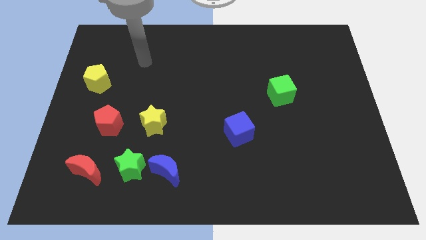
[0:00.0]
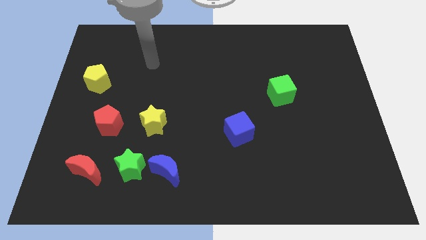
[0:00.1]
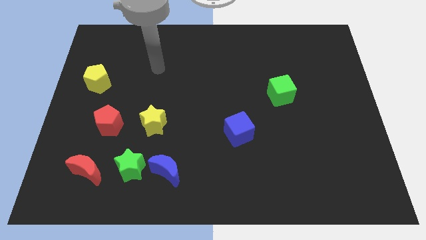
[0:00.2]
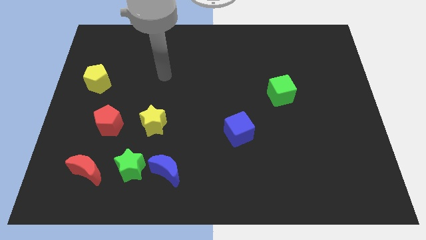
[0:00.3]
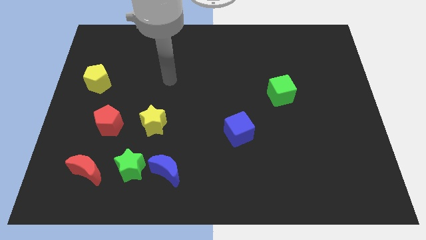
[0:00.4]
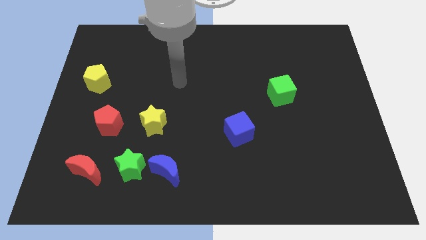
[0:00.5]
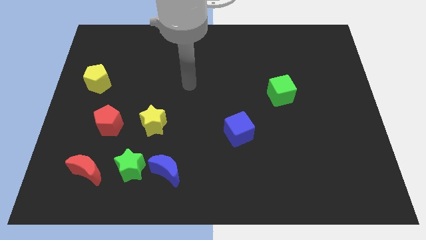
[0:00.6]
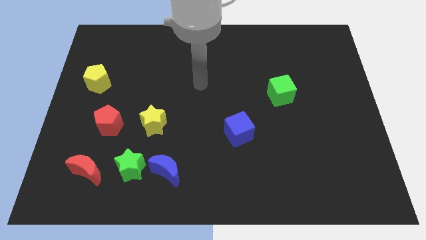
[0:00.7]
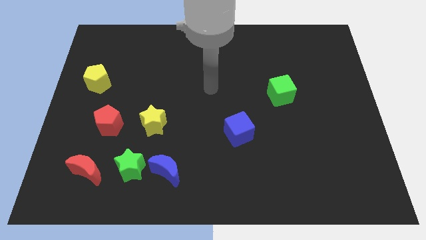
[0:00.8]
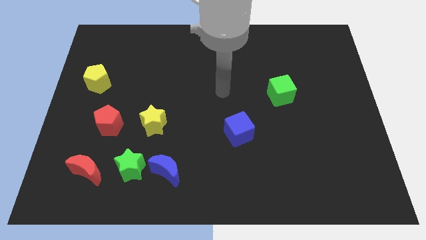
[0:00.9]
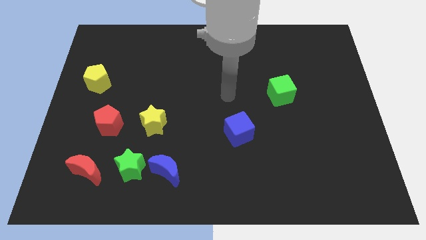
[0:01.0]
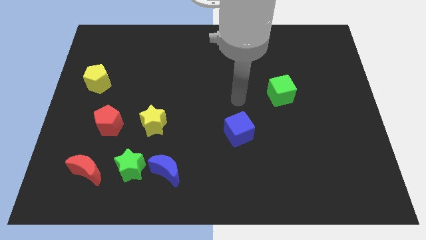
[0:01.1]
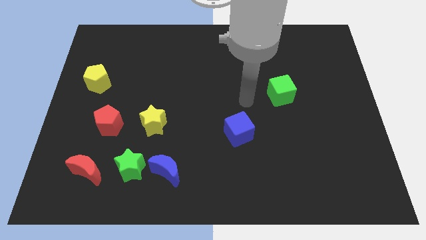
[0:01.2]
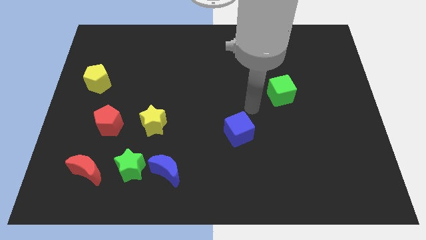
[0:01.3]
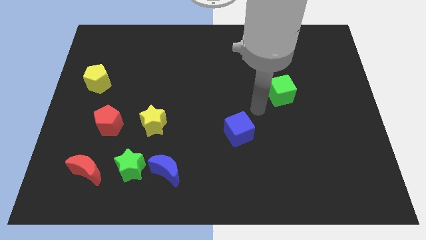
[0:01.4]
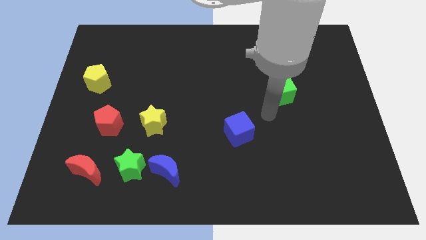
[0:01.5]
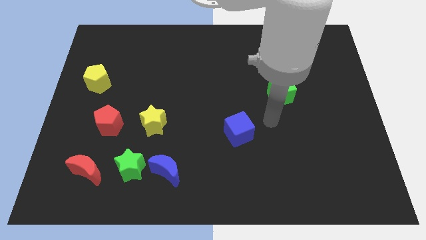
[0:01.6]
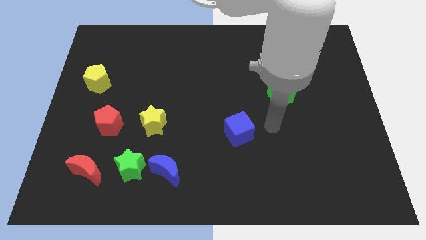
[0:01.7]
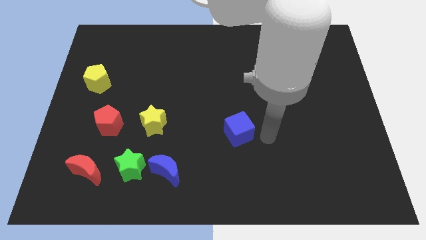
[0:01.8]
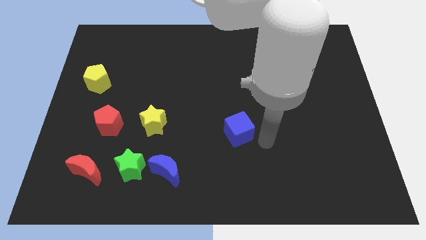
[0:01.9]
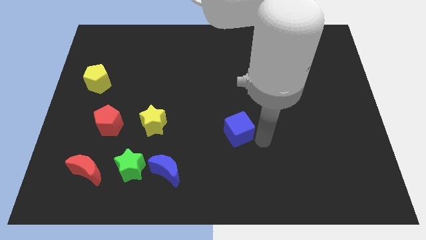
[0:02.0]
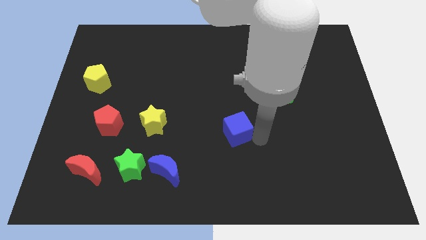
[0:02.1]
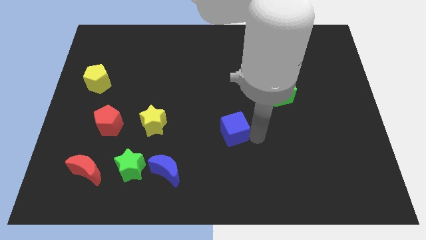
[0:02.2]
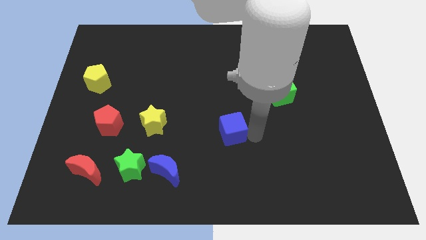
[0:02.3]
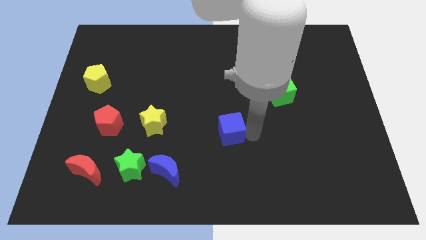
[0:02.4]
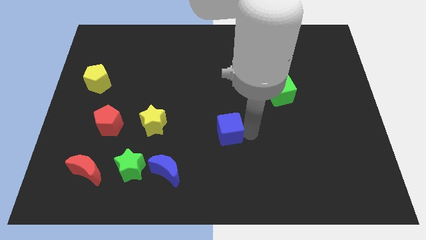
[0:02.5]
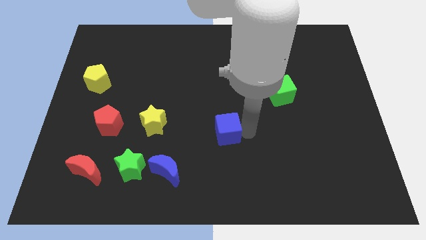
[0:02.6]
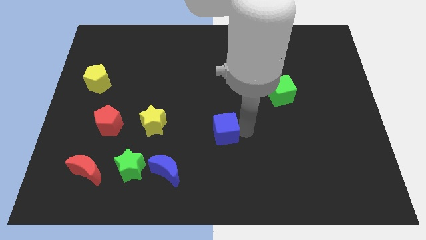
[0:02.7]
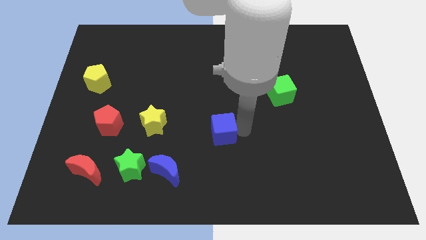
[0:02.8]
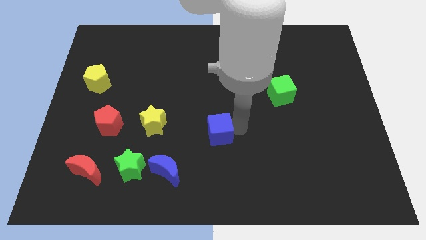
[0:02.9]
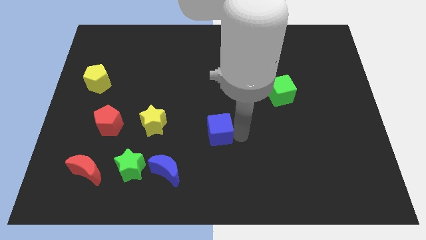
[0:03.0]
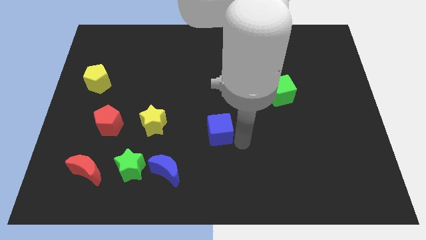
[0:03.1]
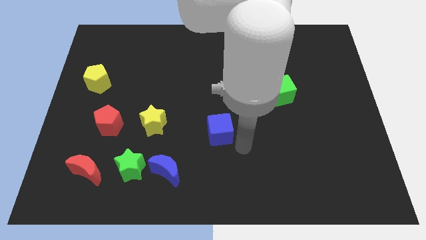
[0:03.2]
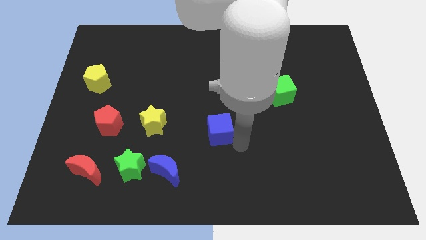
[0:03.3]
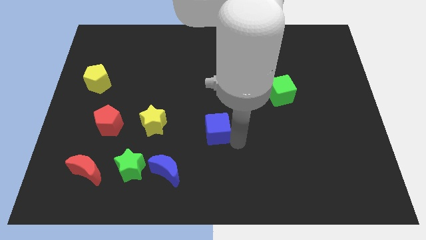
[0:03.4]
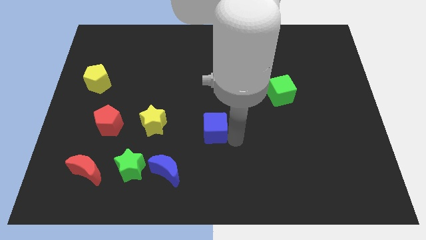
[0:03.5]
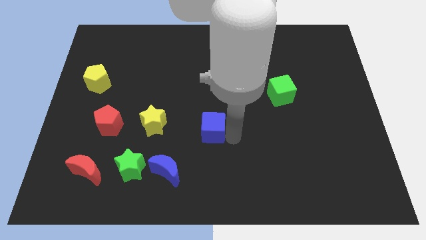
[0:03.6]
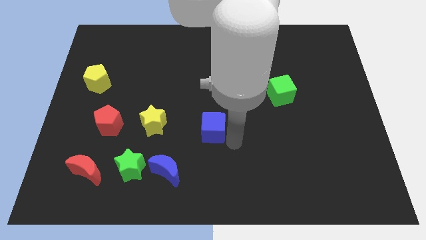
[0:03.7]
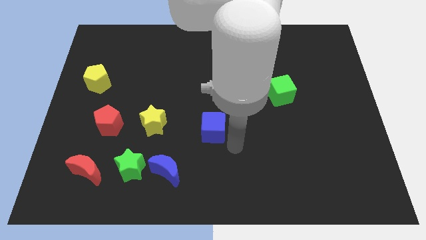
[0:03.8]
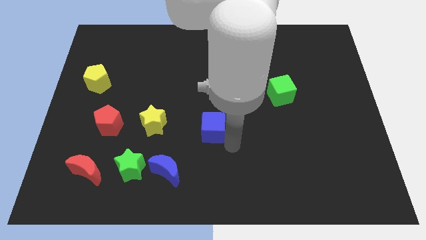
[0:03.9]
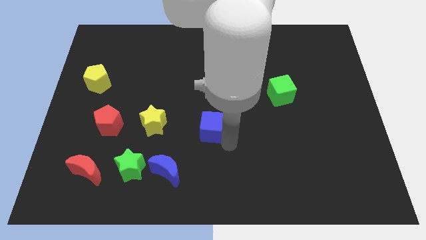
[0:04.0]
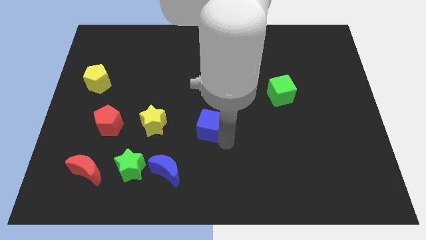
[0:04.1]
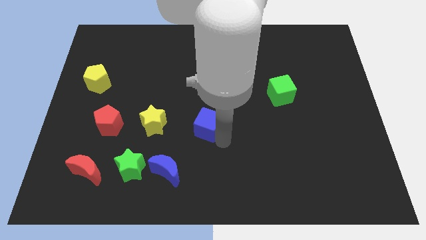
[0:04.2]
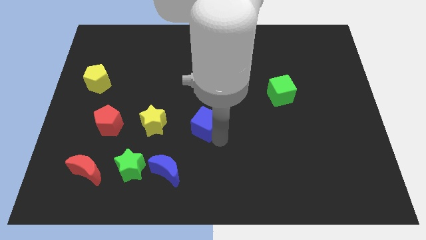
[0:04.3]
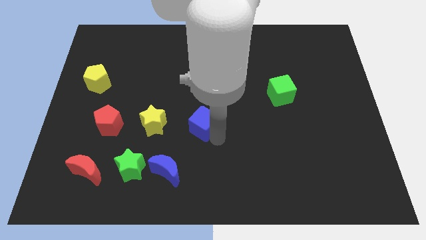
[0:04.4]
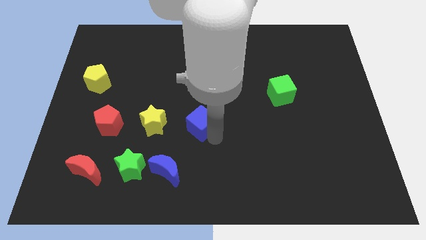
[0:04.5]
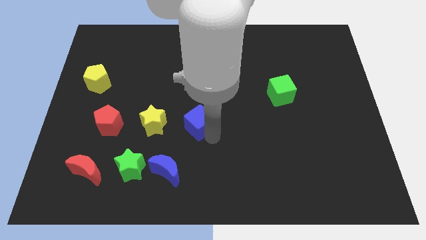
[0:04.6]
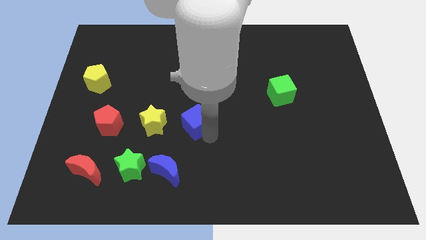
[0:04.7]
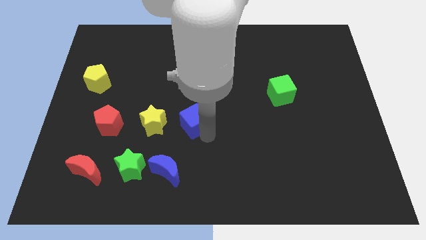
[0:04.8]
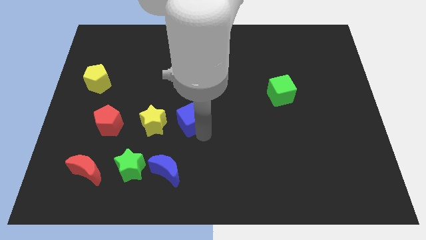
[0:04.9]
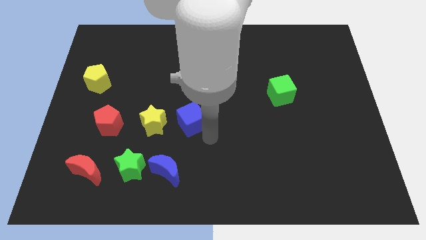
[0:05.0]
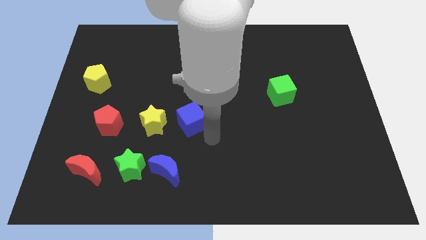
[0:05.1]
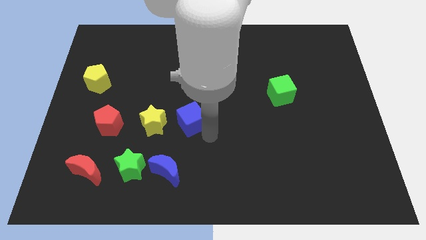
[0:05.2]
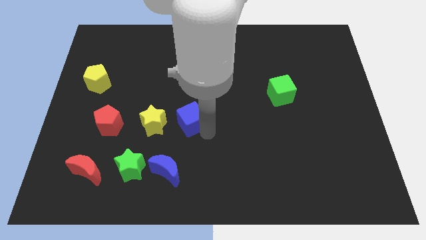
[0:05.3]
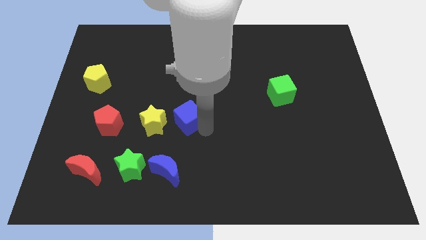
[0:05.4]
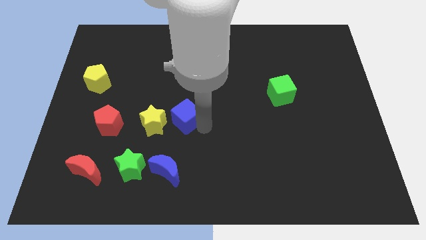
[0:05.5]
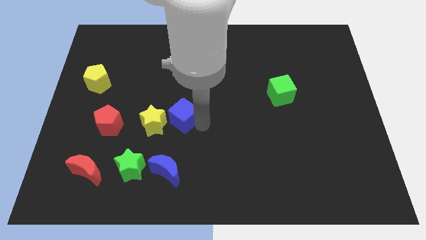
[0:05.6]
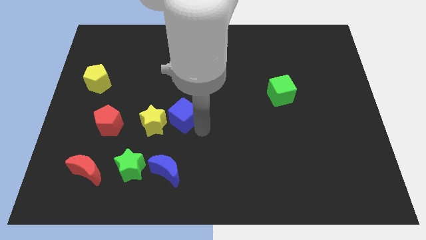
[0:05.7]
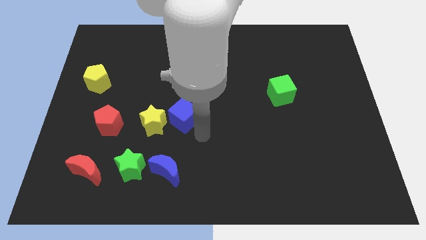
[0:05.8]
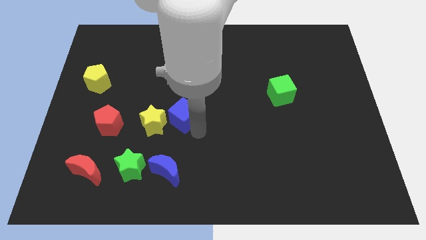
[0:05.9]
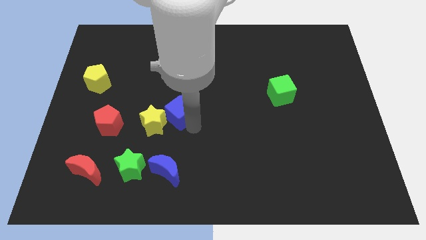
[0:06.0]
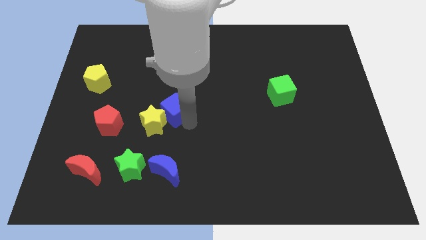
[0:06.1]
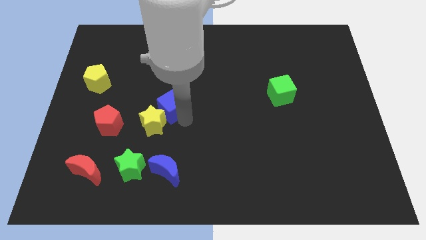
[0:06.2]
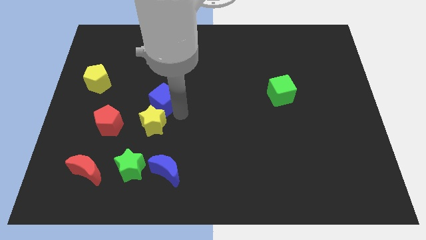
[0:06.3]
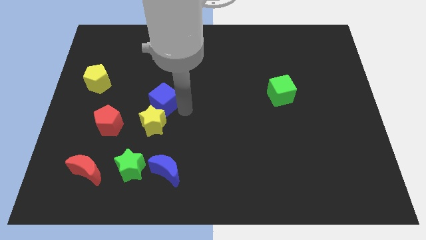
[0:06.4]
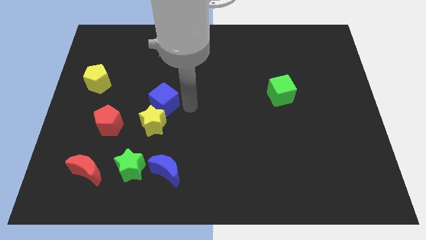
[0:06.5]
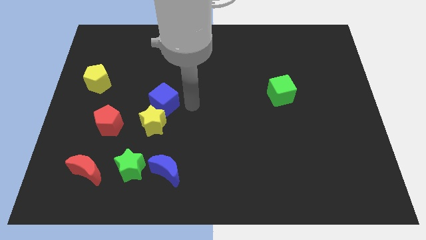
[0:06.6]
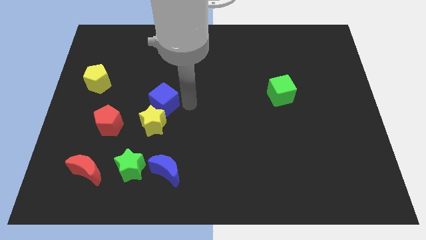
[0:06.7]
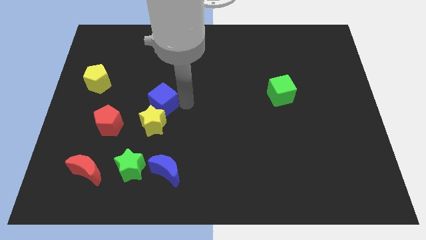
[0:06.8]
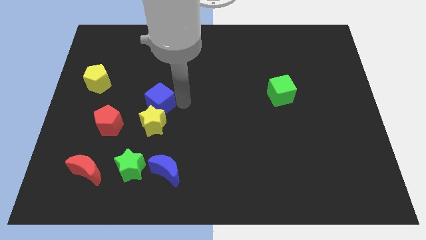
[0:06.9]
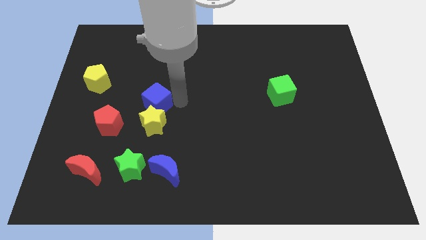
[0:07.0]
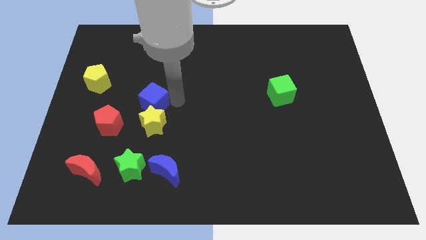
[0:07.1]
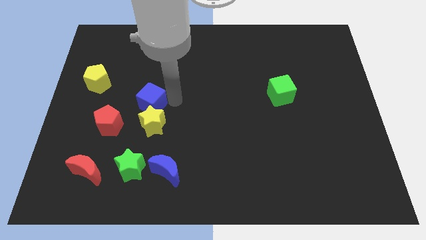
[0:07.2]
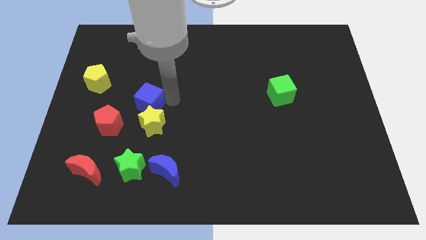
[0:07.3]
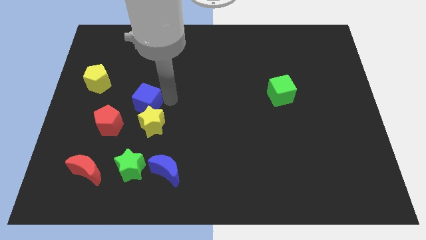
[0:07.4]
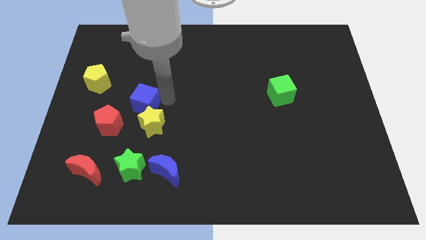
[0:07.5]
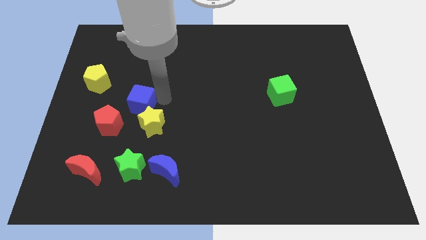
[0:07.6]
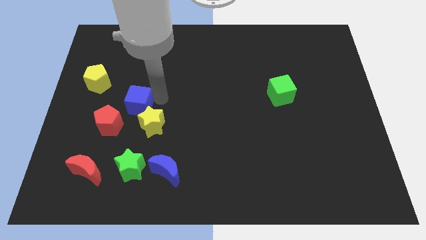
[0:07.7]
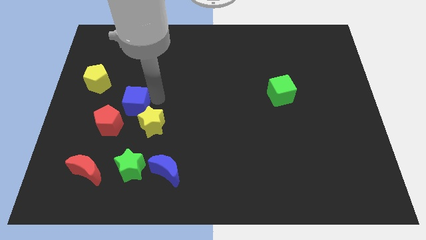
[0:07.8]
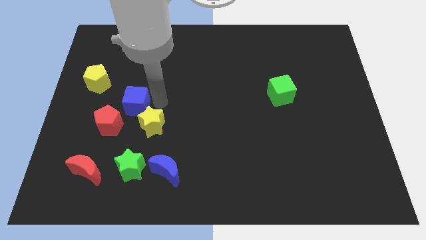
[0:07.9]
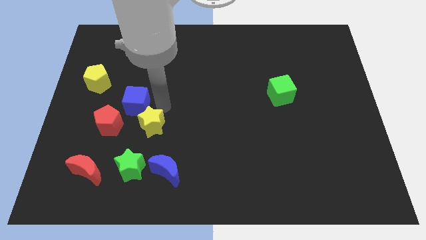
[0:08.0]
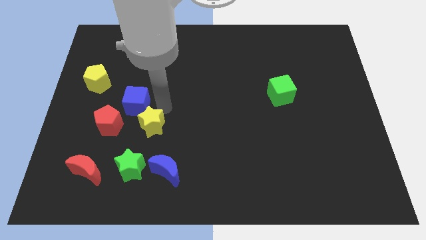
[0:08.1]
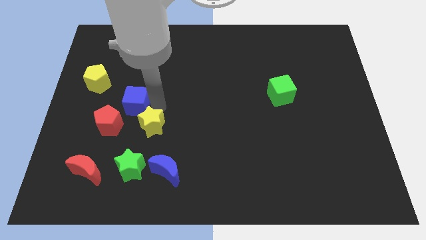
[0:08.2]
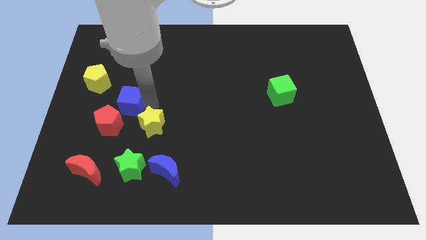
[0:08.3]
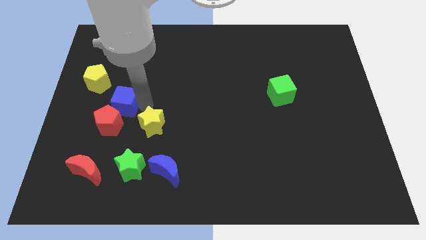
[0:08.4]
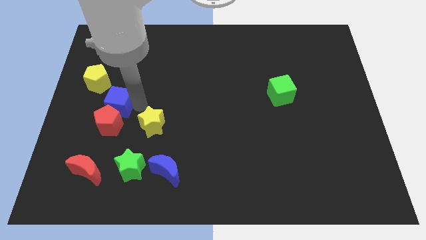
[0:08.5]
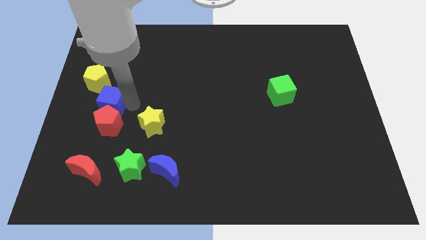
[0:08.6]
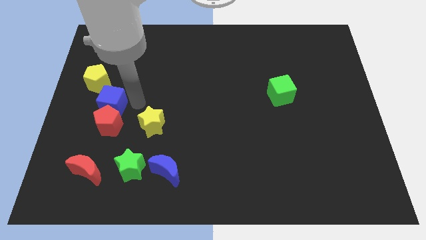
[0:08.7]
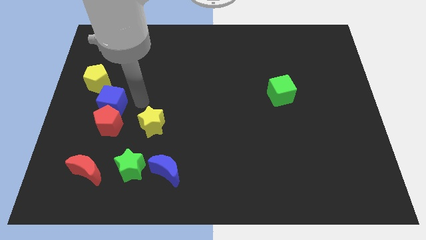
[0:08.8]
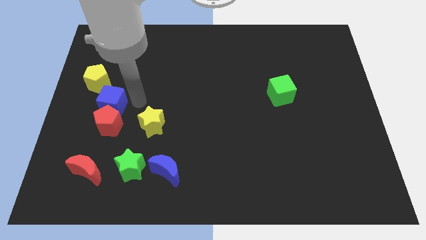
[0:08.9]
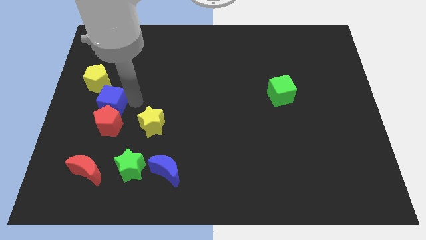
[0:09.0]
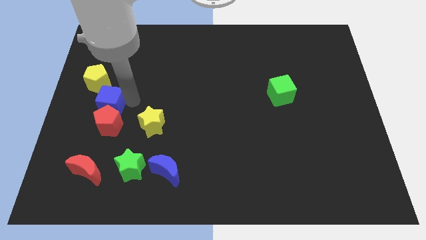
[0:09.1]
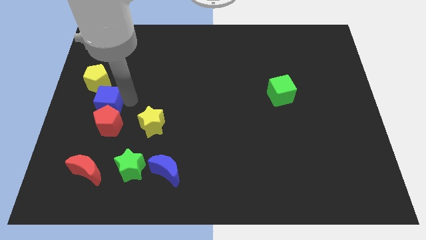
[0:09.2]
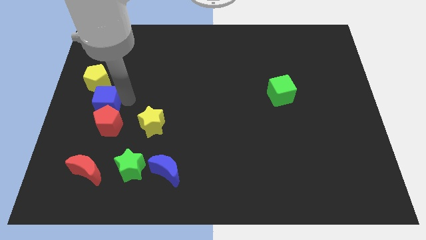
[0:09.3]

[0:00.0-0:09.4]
push the blue cube to the left side
